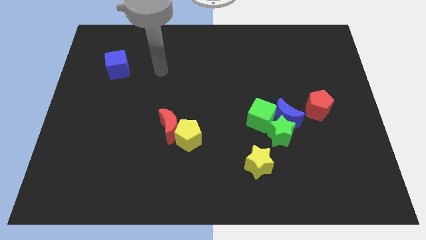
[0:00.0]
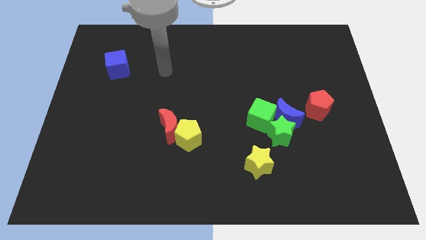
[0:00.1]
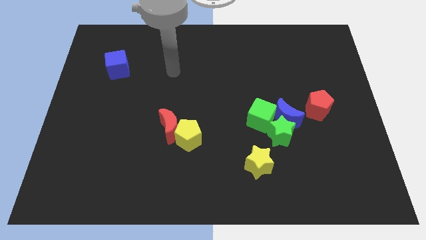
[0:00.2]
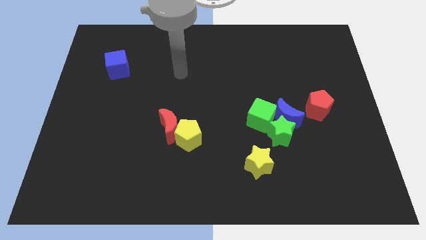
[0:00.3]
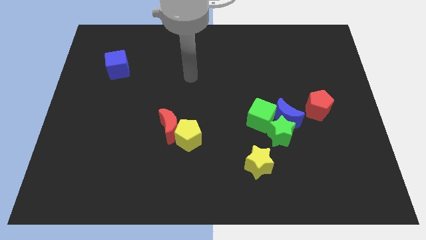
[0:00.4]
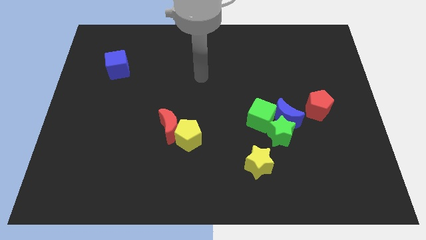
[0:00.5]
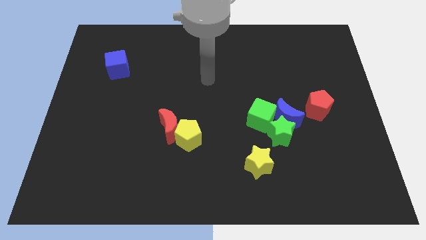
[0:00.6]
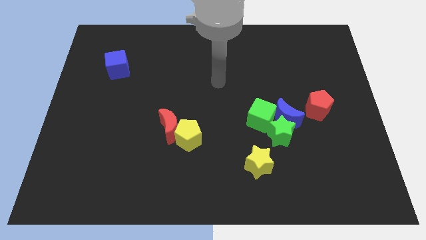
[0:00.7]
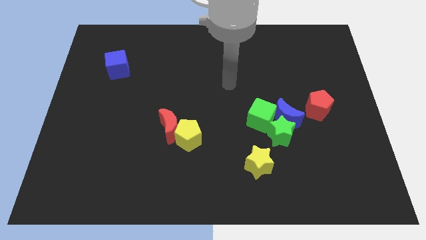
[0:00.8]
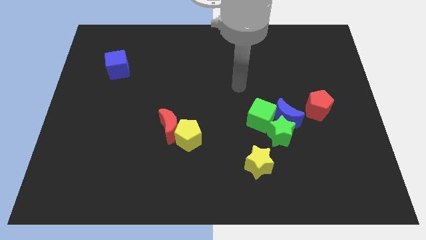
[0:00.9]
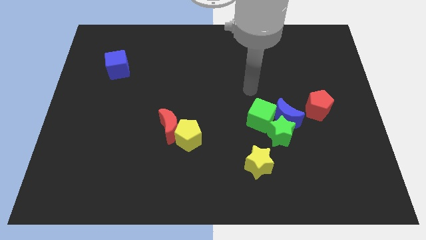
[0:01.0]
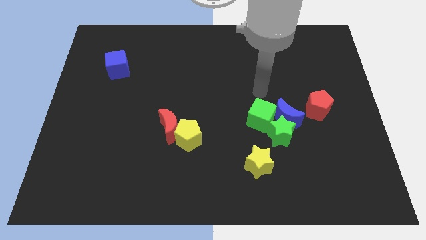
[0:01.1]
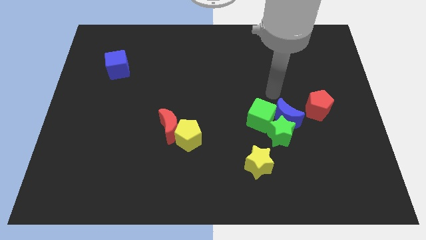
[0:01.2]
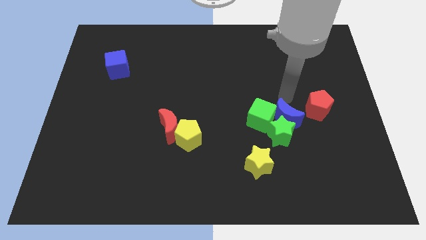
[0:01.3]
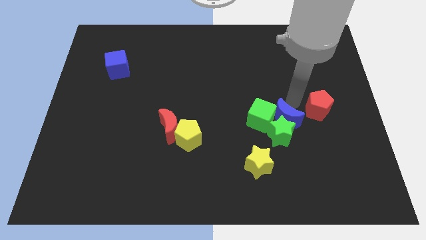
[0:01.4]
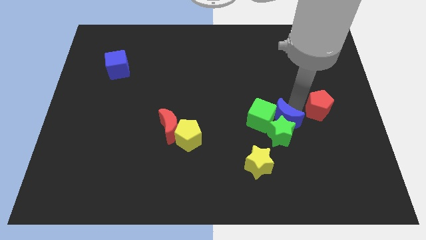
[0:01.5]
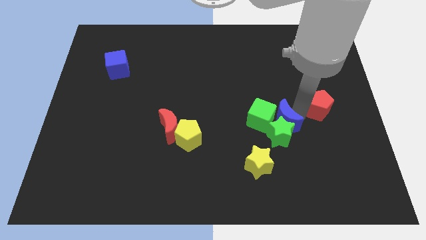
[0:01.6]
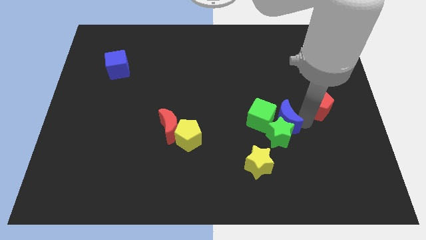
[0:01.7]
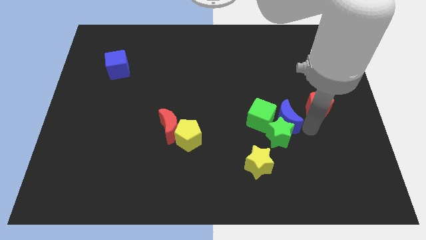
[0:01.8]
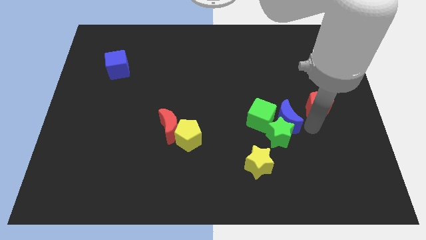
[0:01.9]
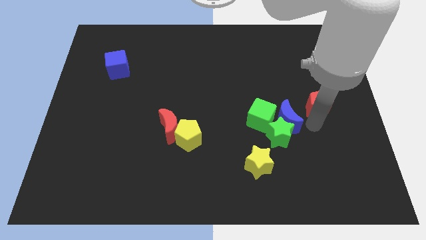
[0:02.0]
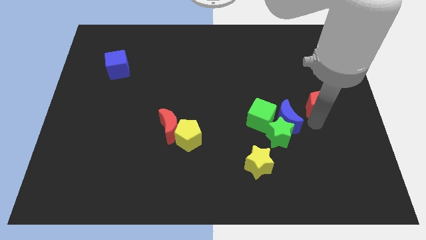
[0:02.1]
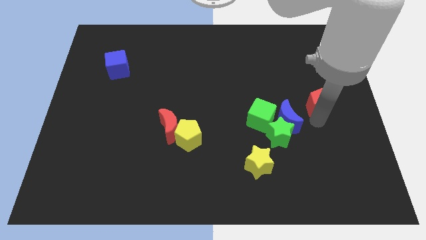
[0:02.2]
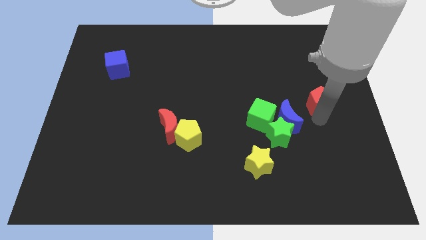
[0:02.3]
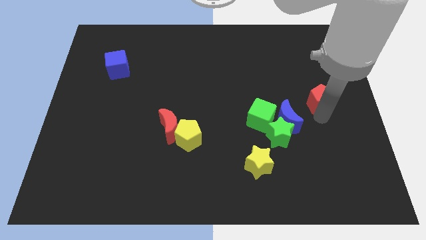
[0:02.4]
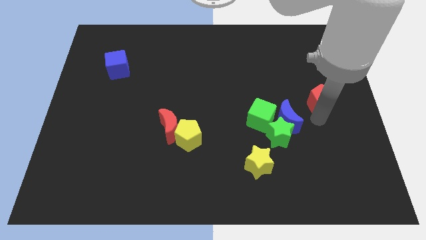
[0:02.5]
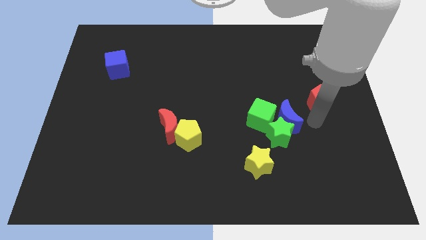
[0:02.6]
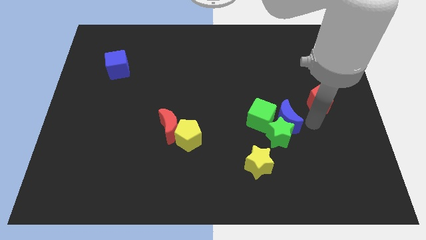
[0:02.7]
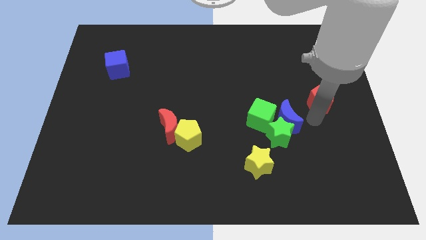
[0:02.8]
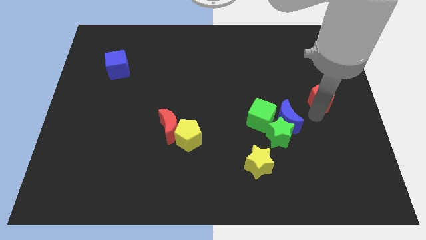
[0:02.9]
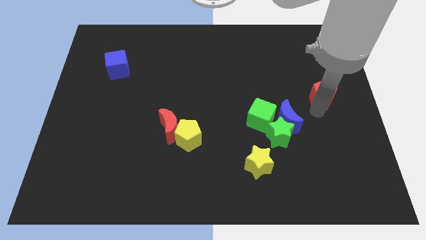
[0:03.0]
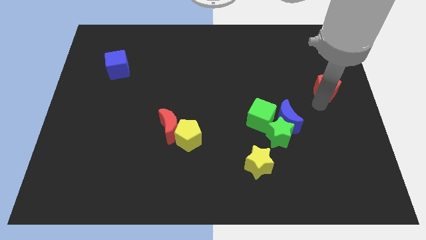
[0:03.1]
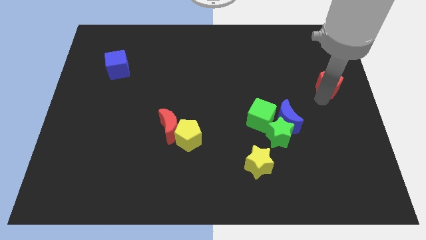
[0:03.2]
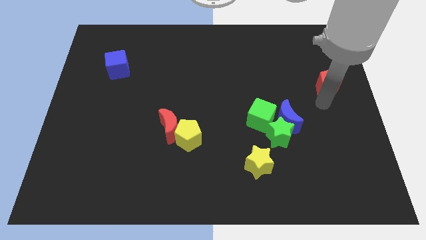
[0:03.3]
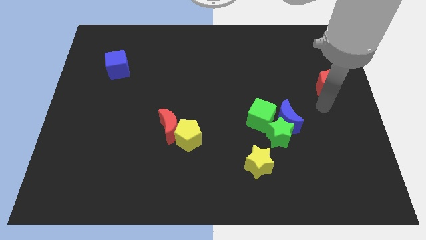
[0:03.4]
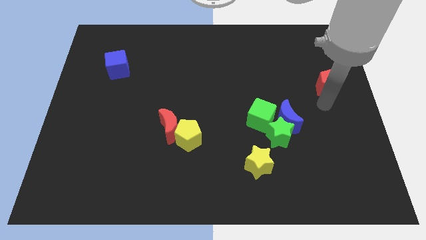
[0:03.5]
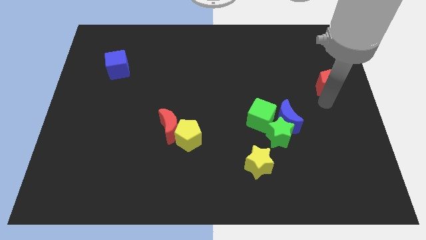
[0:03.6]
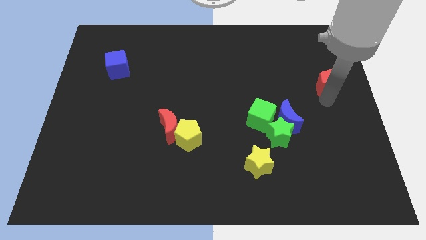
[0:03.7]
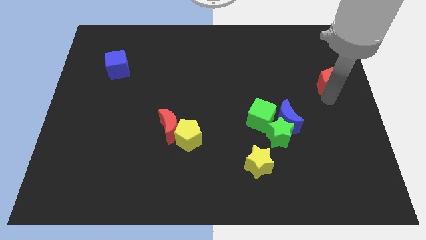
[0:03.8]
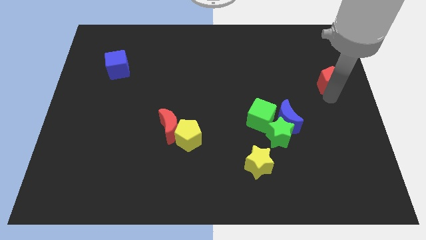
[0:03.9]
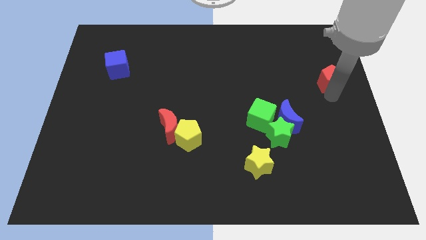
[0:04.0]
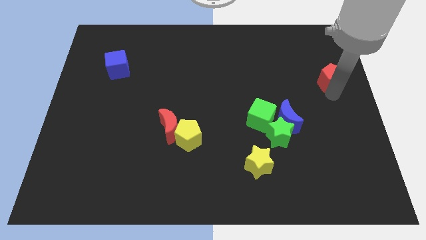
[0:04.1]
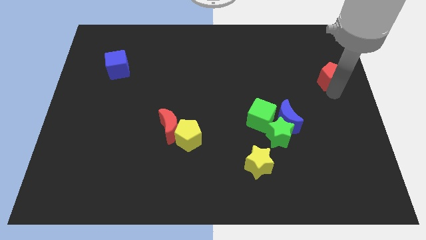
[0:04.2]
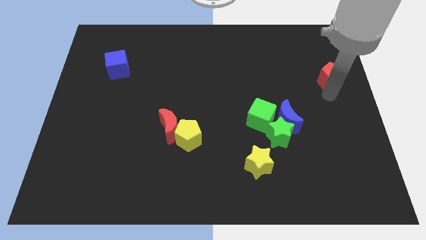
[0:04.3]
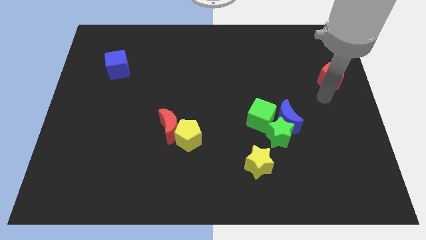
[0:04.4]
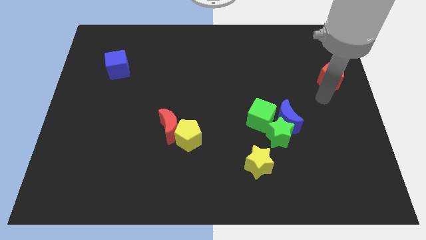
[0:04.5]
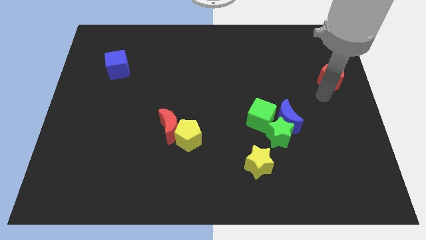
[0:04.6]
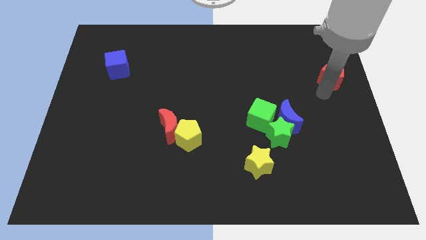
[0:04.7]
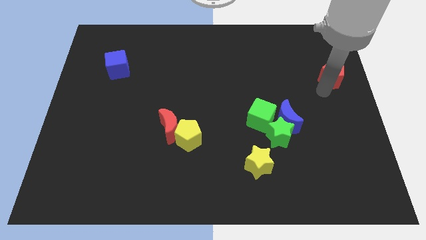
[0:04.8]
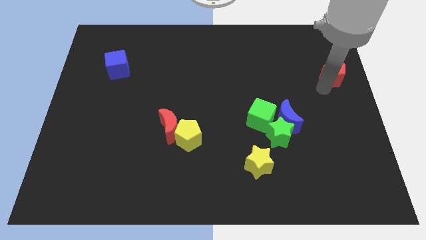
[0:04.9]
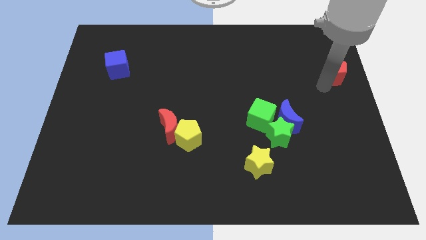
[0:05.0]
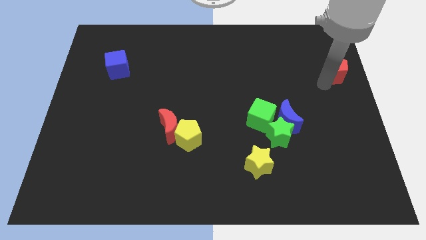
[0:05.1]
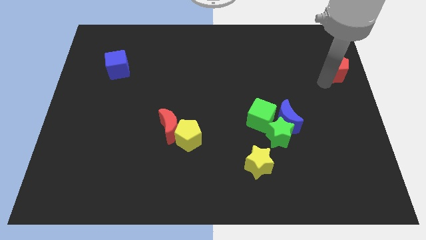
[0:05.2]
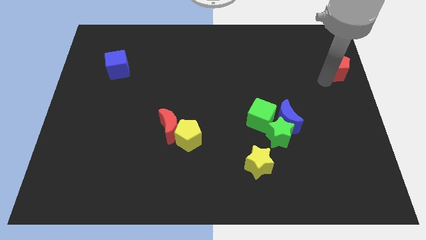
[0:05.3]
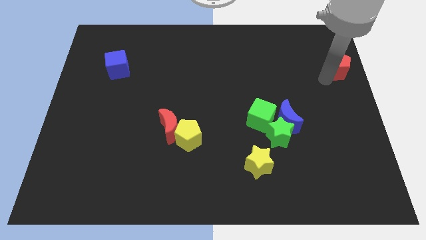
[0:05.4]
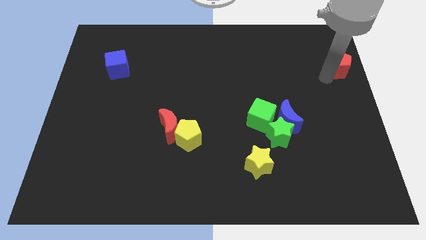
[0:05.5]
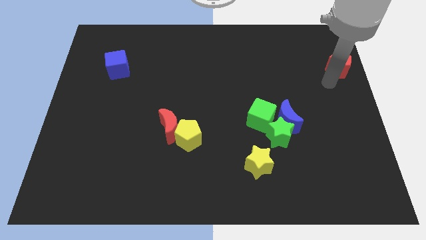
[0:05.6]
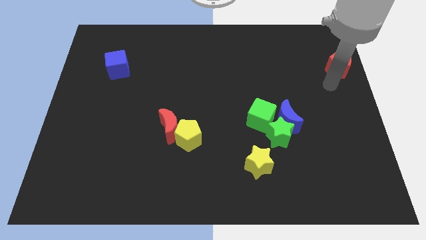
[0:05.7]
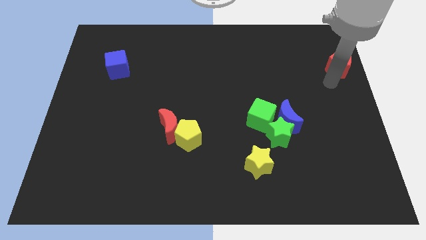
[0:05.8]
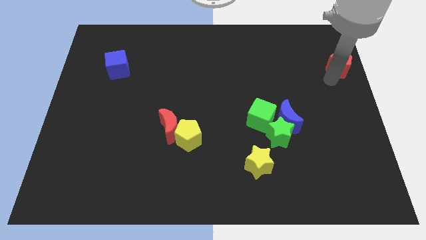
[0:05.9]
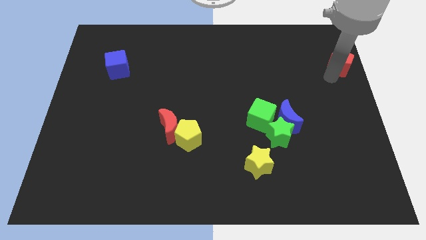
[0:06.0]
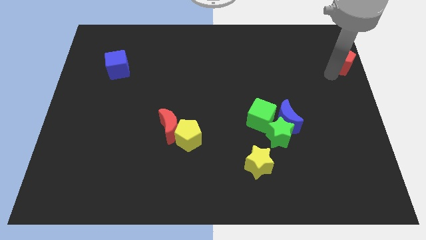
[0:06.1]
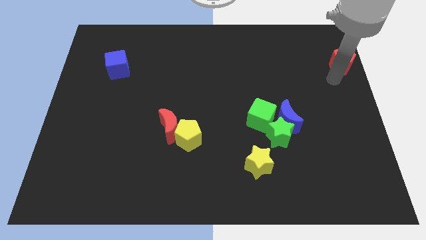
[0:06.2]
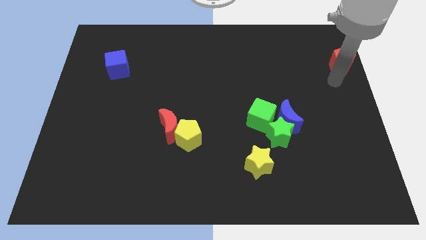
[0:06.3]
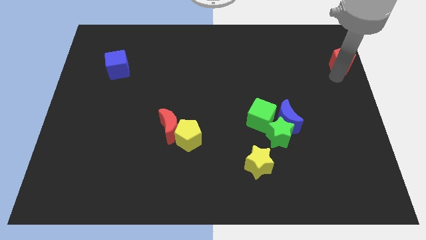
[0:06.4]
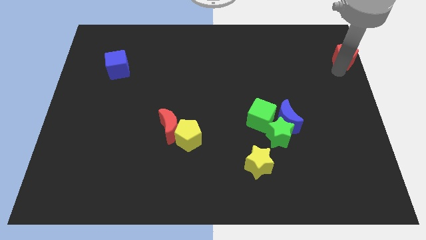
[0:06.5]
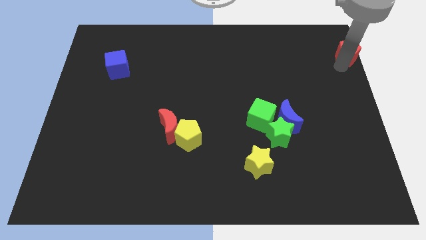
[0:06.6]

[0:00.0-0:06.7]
slide the red pentagon to the top right corner
